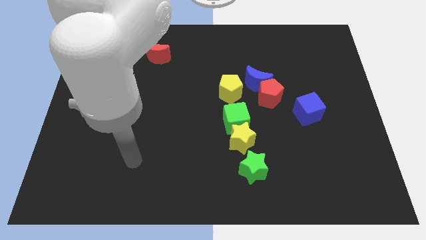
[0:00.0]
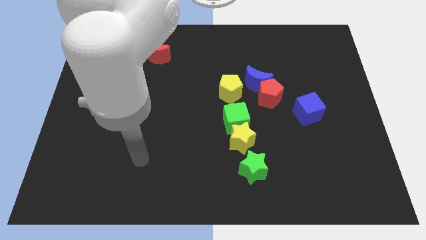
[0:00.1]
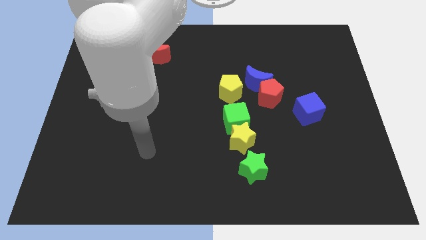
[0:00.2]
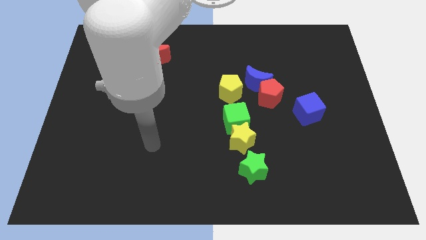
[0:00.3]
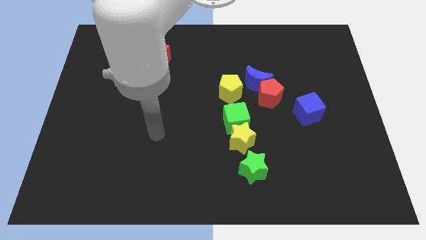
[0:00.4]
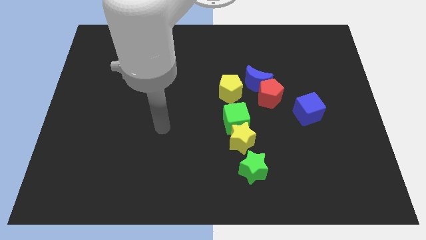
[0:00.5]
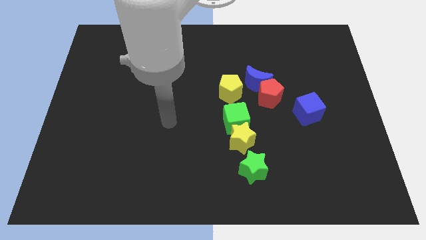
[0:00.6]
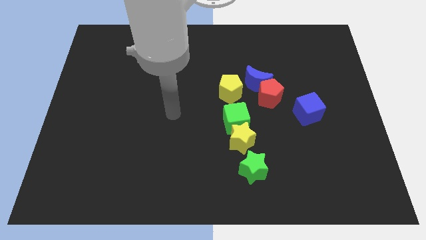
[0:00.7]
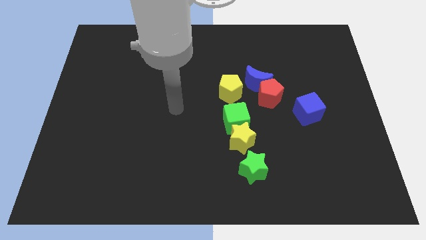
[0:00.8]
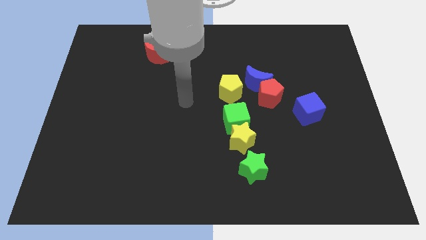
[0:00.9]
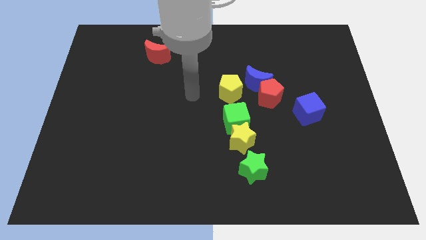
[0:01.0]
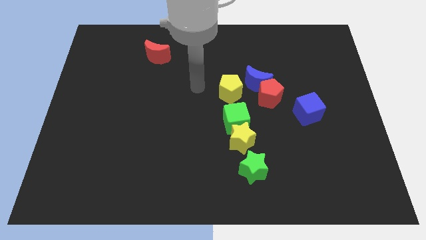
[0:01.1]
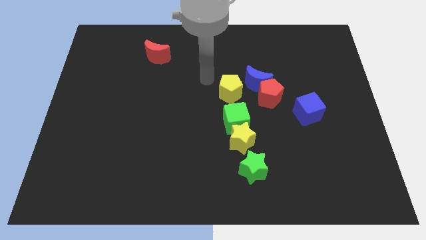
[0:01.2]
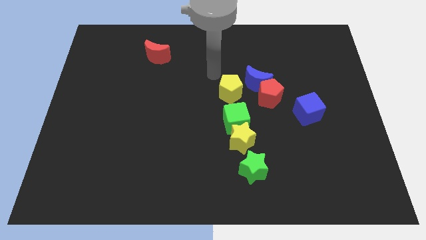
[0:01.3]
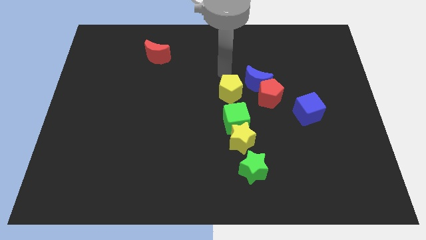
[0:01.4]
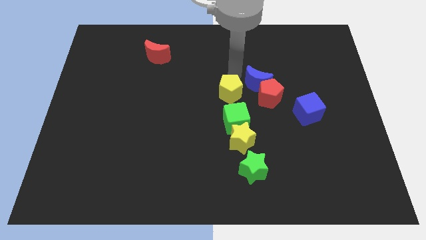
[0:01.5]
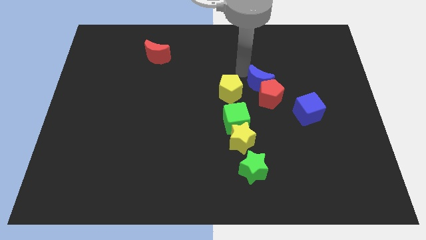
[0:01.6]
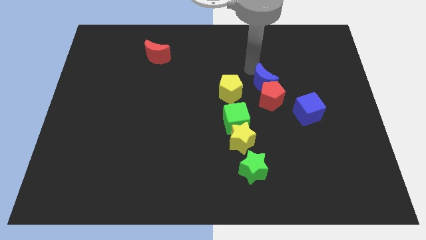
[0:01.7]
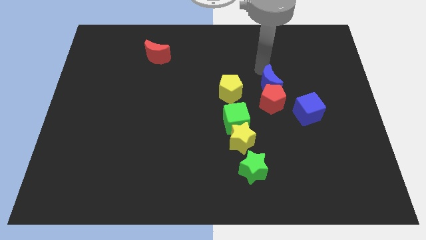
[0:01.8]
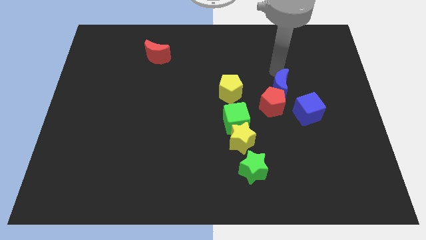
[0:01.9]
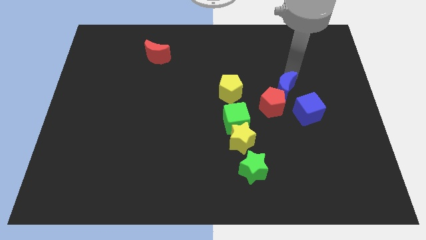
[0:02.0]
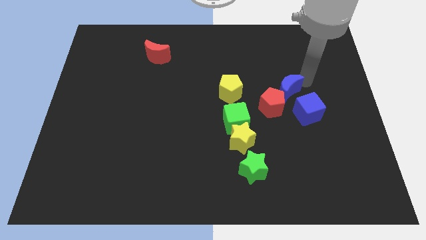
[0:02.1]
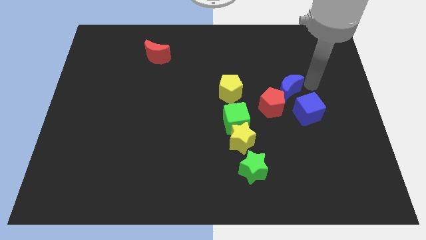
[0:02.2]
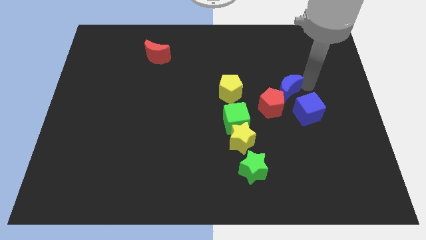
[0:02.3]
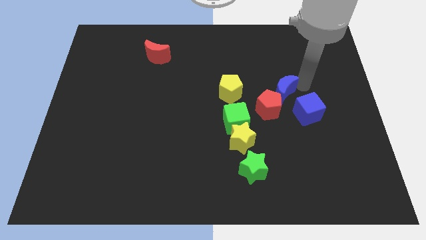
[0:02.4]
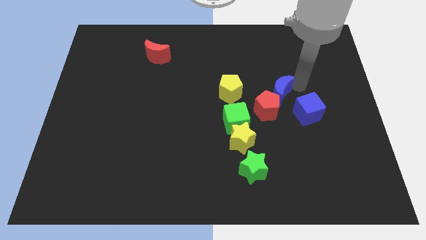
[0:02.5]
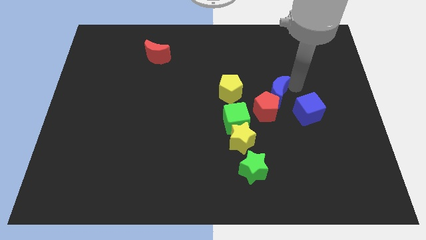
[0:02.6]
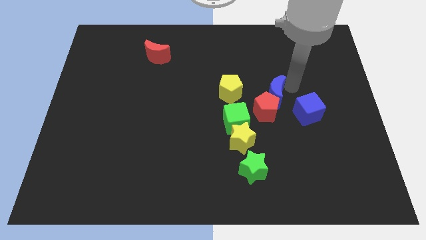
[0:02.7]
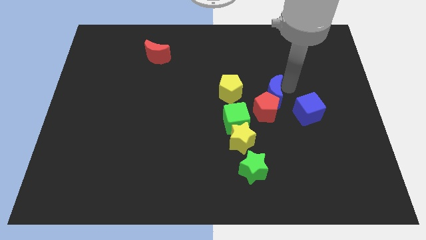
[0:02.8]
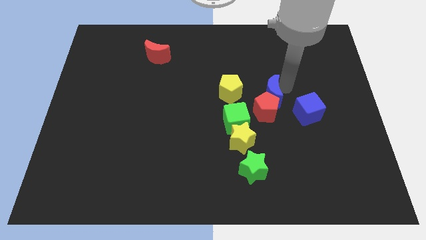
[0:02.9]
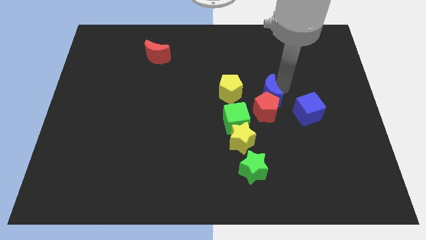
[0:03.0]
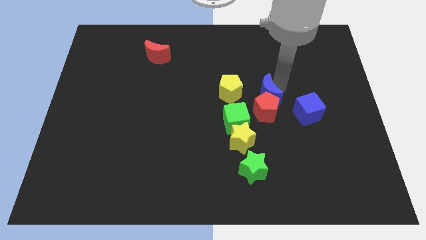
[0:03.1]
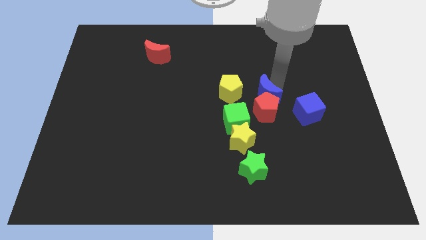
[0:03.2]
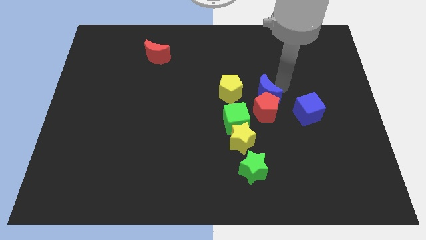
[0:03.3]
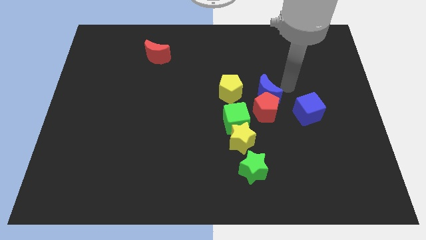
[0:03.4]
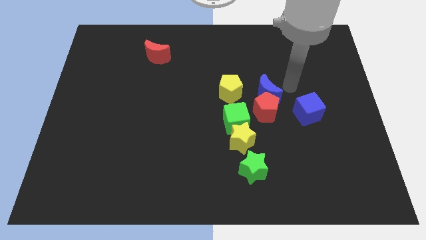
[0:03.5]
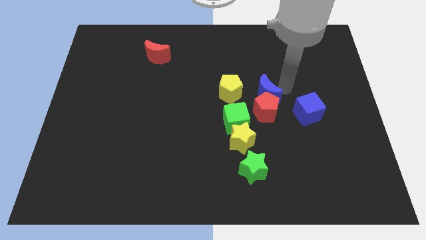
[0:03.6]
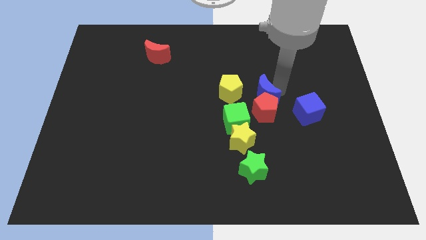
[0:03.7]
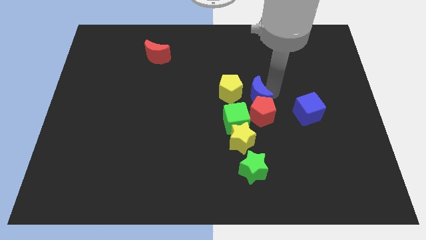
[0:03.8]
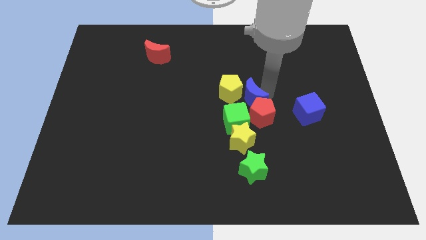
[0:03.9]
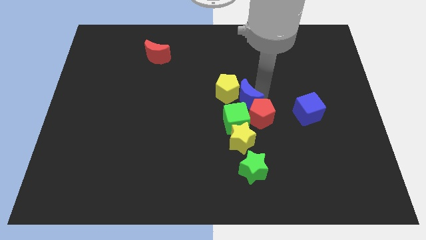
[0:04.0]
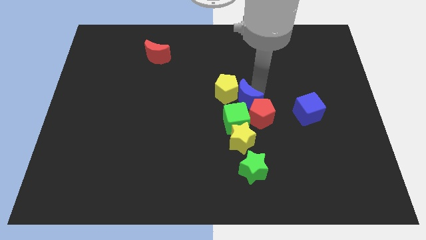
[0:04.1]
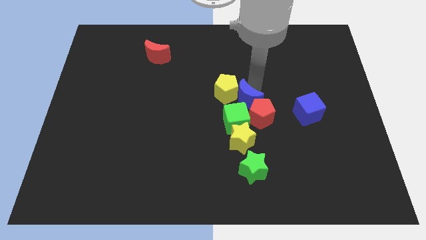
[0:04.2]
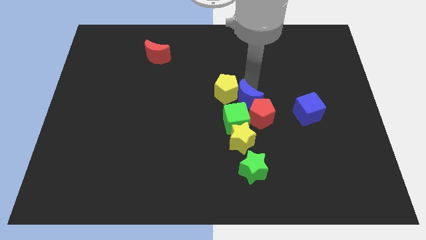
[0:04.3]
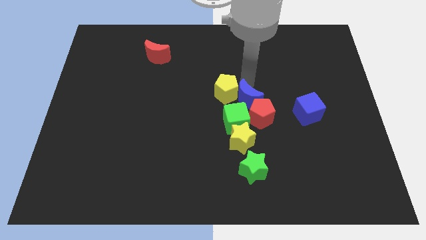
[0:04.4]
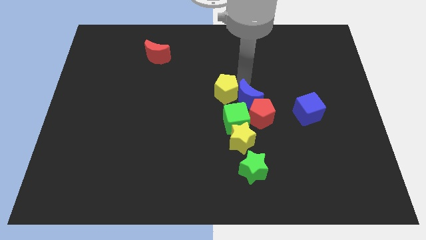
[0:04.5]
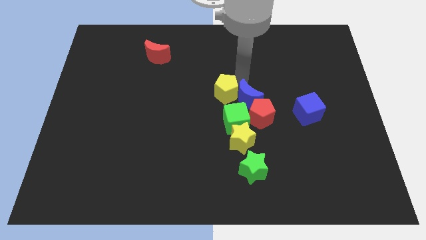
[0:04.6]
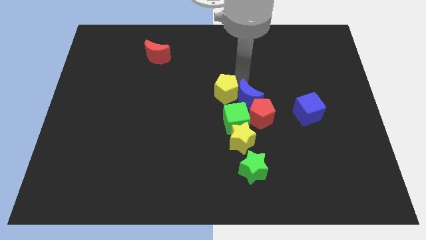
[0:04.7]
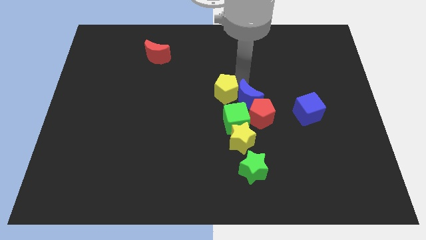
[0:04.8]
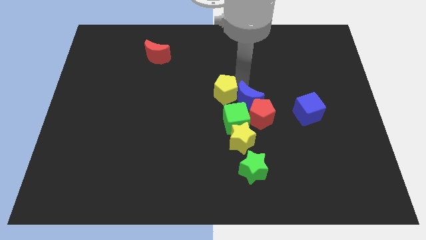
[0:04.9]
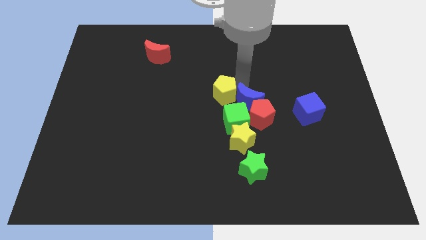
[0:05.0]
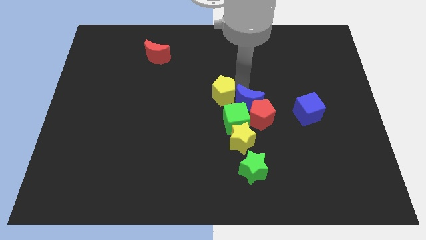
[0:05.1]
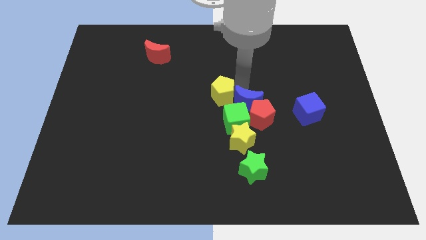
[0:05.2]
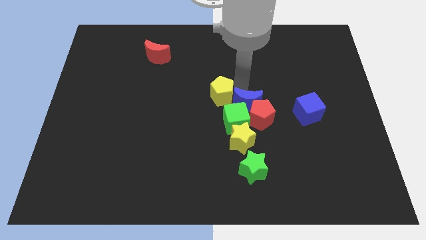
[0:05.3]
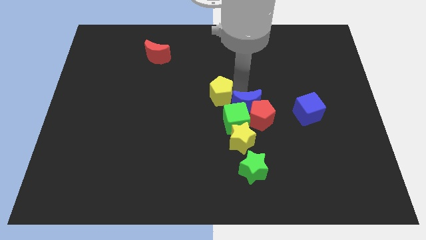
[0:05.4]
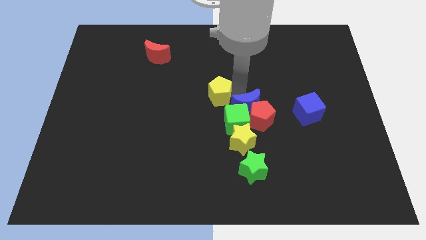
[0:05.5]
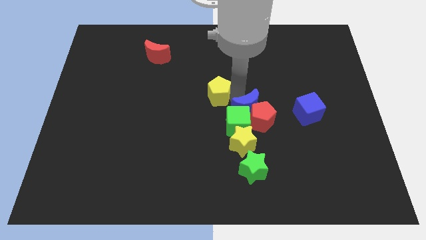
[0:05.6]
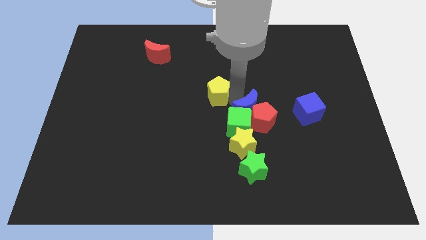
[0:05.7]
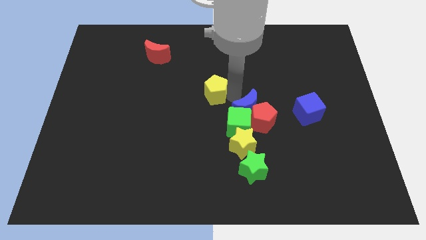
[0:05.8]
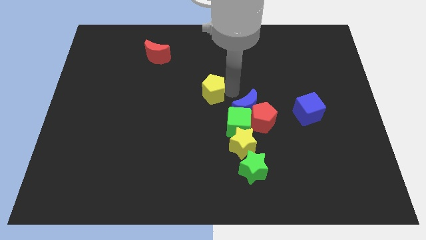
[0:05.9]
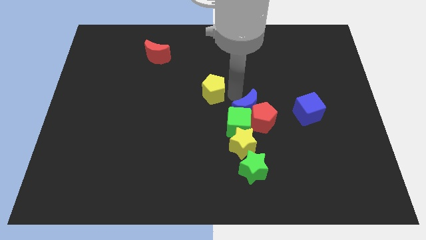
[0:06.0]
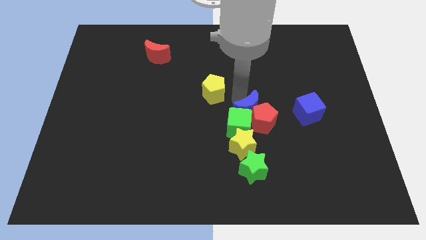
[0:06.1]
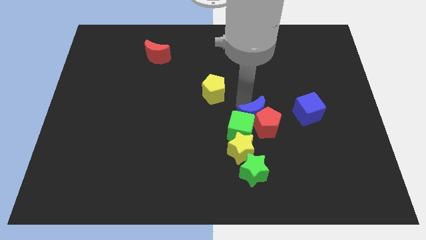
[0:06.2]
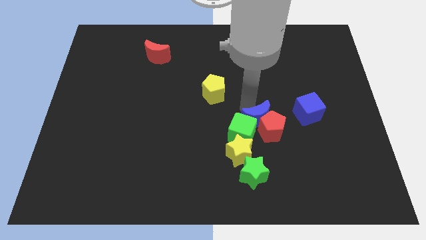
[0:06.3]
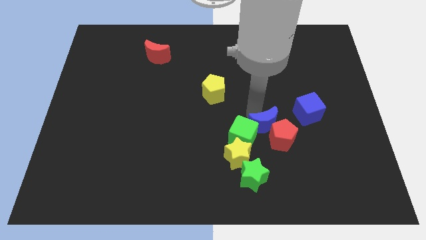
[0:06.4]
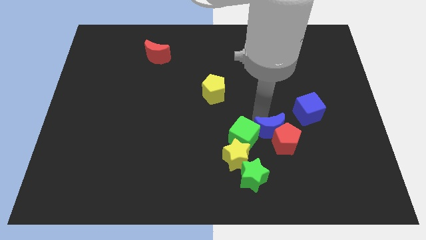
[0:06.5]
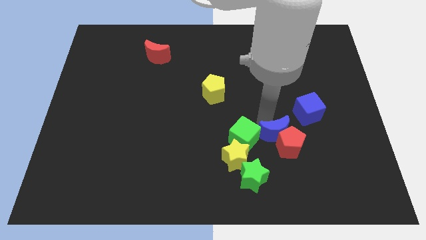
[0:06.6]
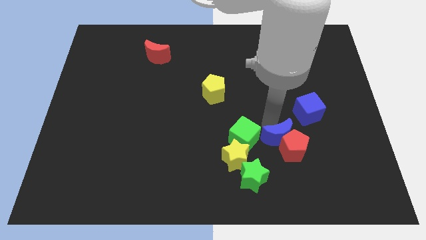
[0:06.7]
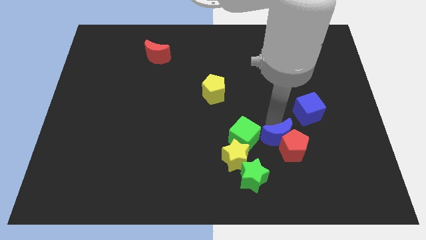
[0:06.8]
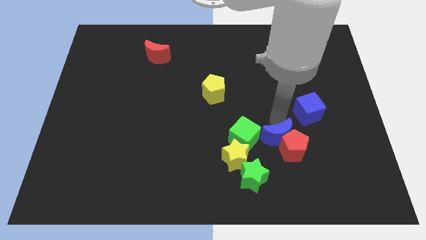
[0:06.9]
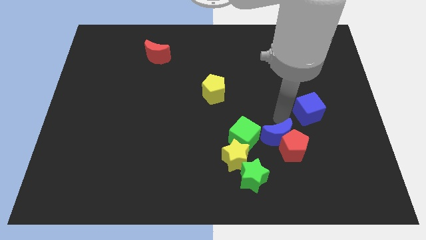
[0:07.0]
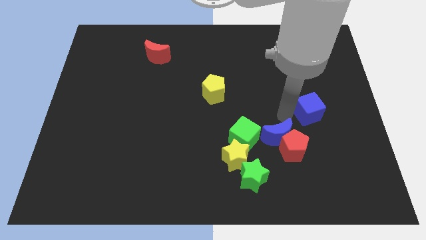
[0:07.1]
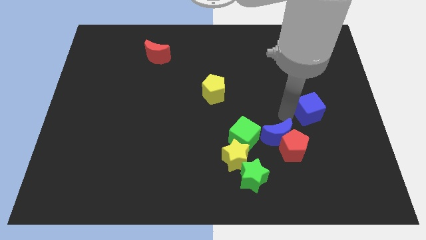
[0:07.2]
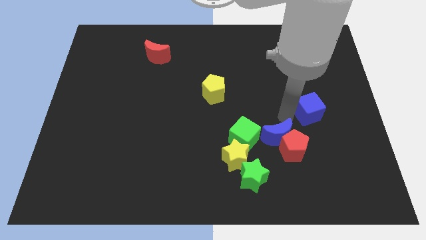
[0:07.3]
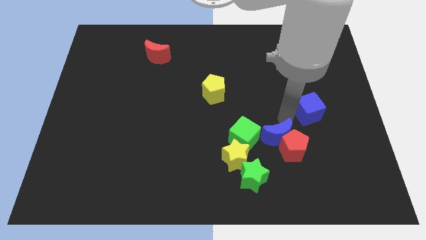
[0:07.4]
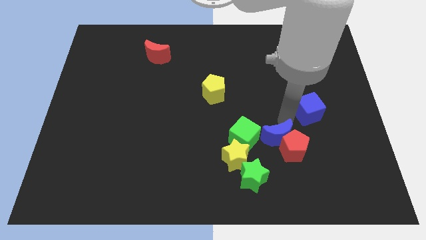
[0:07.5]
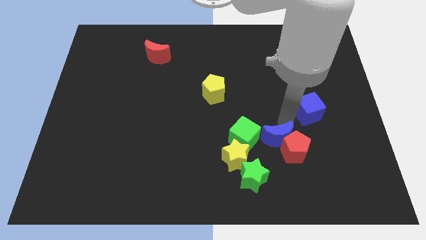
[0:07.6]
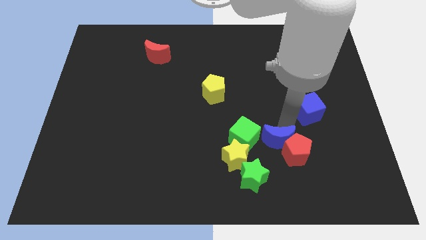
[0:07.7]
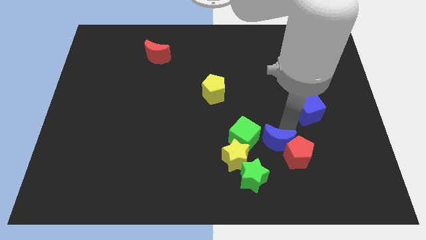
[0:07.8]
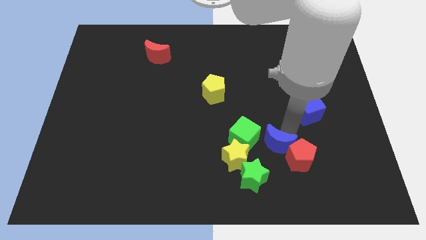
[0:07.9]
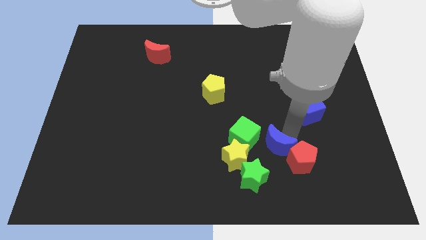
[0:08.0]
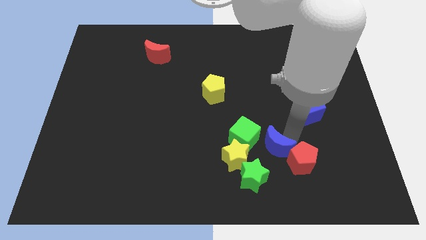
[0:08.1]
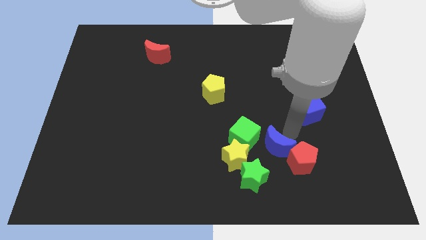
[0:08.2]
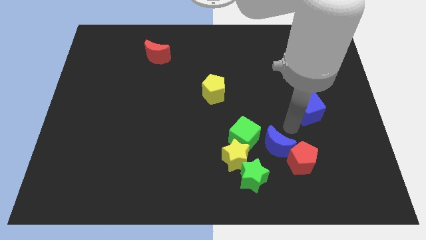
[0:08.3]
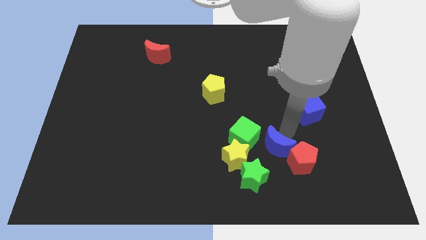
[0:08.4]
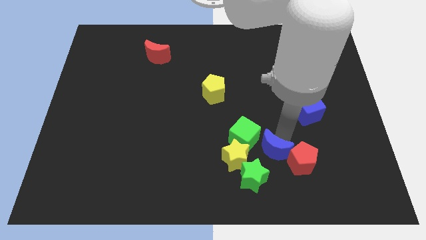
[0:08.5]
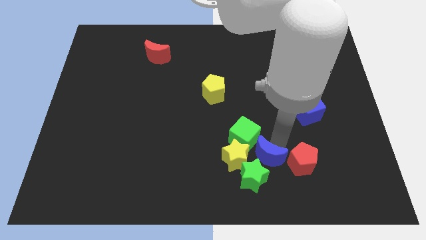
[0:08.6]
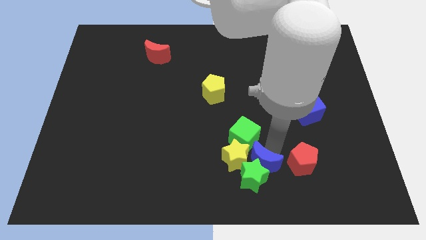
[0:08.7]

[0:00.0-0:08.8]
push the blue moon to the green star
